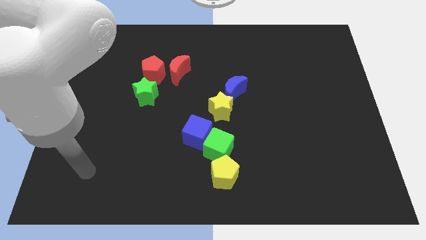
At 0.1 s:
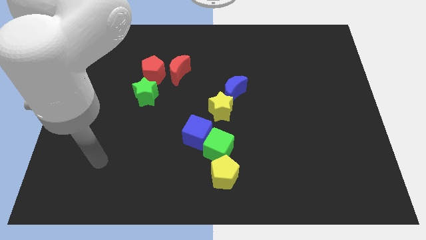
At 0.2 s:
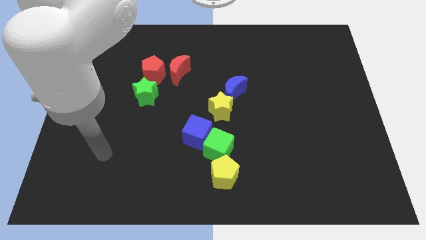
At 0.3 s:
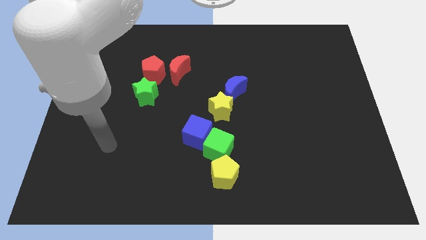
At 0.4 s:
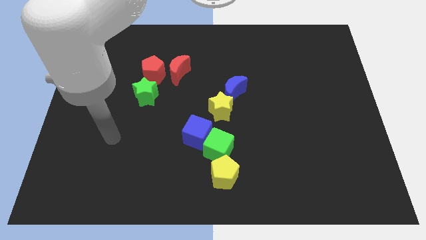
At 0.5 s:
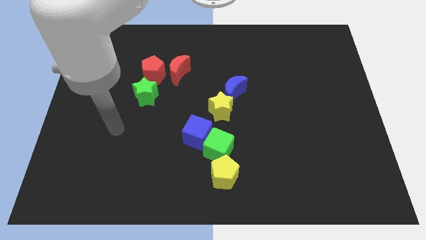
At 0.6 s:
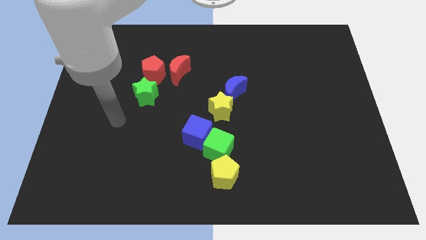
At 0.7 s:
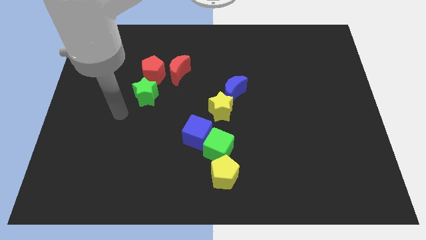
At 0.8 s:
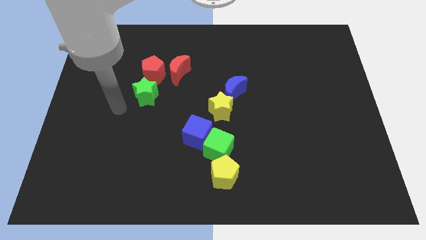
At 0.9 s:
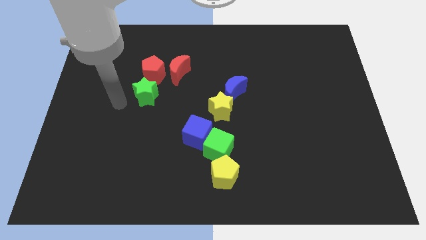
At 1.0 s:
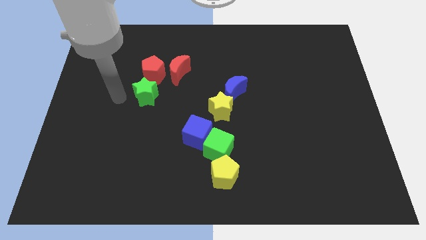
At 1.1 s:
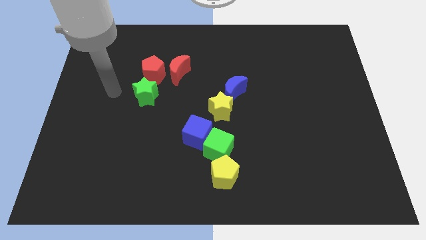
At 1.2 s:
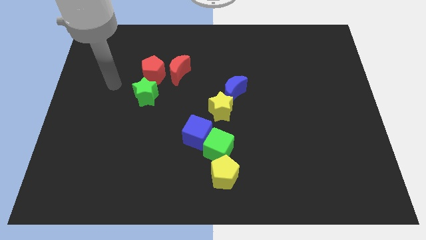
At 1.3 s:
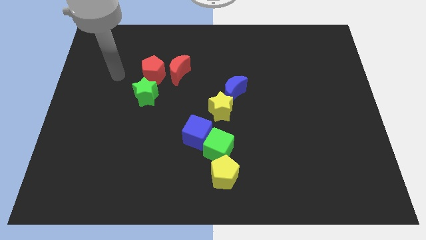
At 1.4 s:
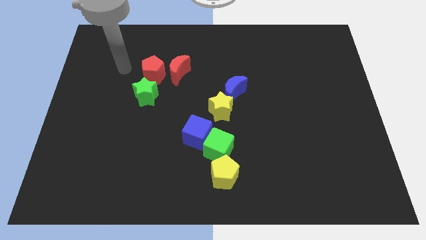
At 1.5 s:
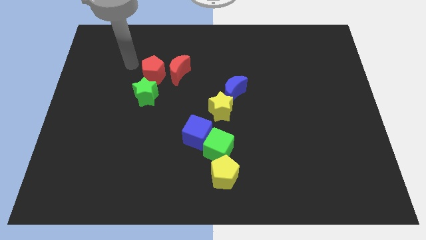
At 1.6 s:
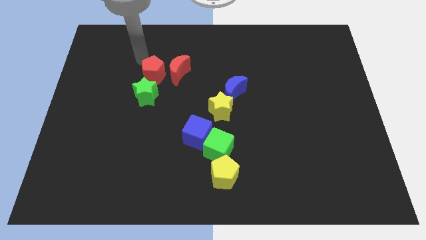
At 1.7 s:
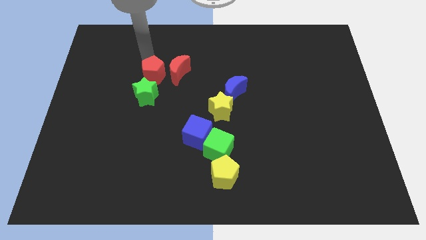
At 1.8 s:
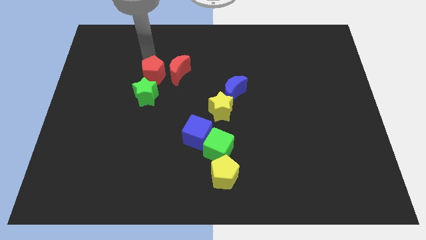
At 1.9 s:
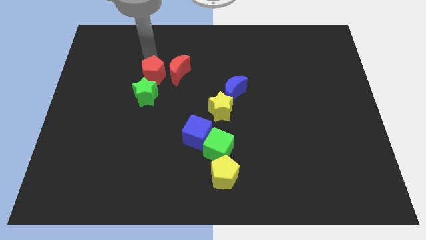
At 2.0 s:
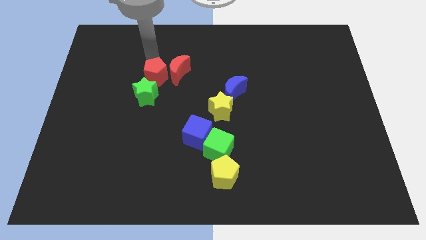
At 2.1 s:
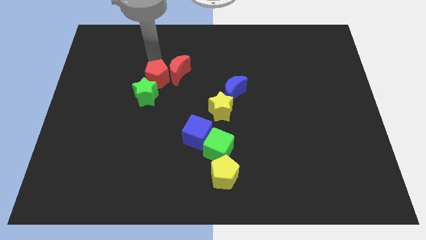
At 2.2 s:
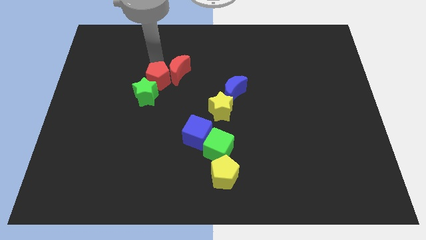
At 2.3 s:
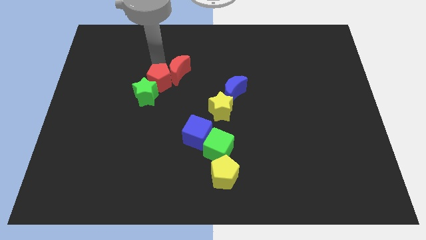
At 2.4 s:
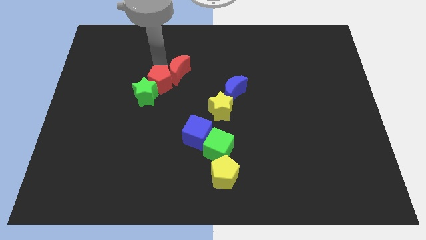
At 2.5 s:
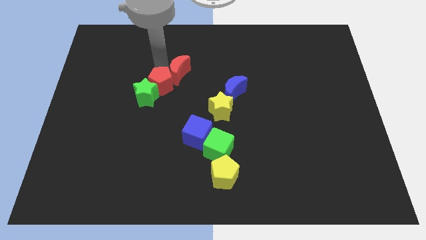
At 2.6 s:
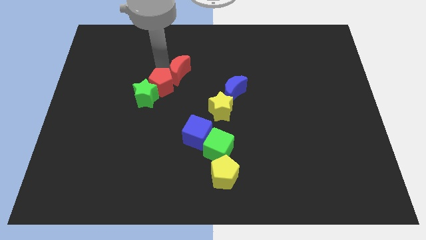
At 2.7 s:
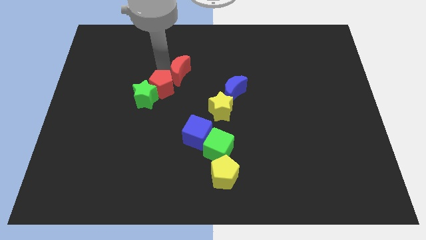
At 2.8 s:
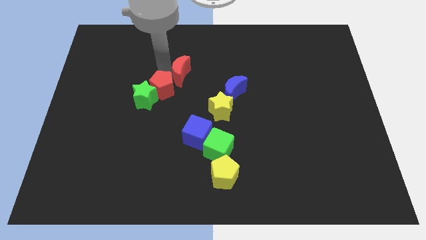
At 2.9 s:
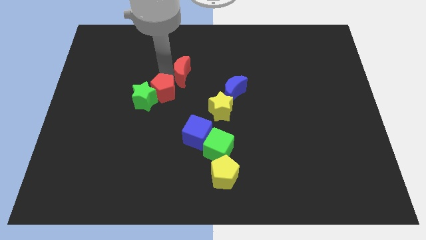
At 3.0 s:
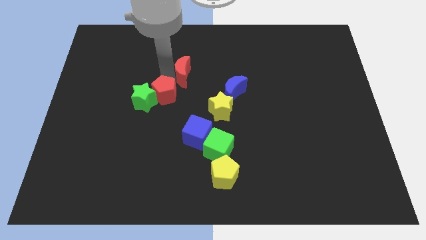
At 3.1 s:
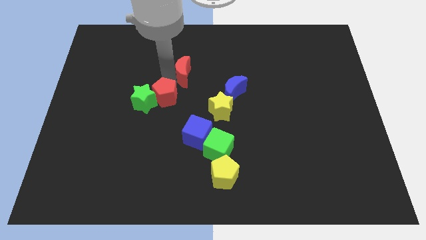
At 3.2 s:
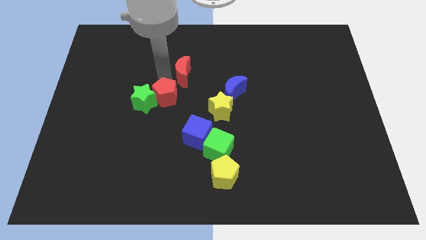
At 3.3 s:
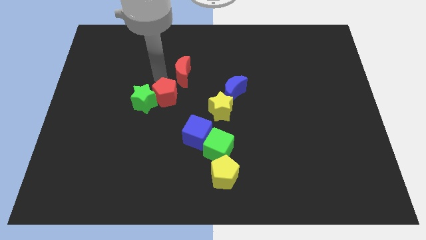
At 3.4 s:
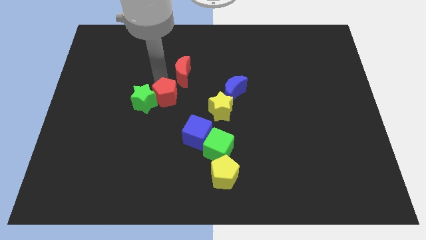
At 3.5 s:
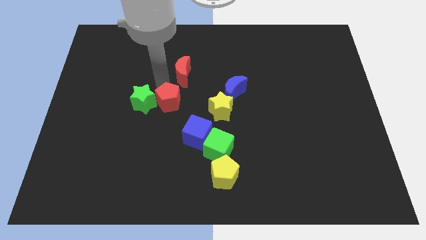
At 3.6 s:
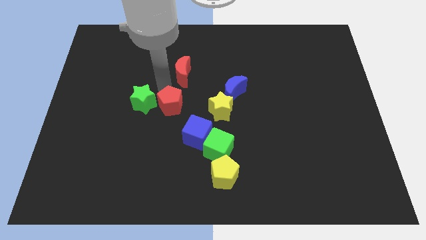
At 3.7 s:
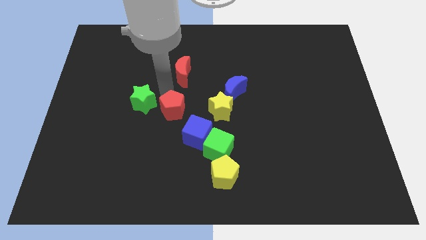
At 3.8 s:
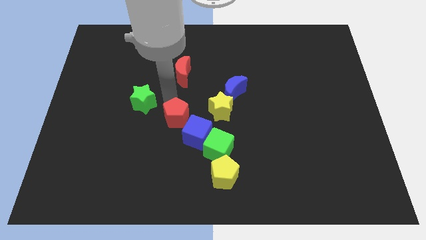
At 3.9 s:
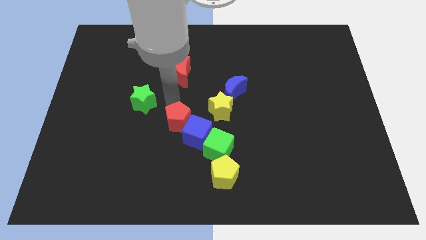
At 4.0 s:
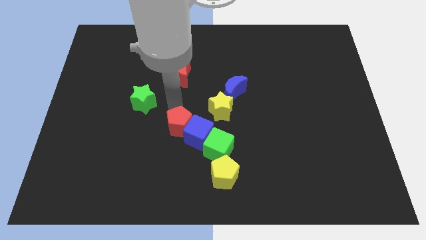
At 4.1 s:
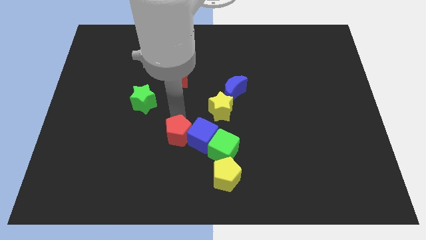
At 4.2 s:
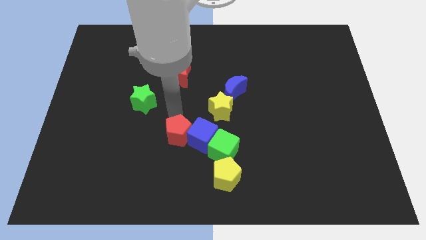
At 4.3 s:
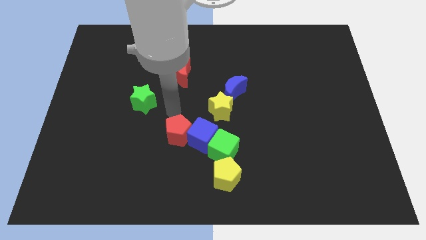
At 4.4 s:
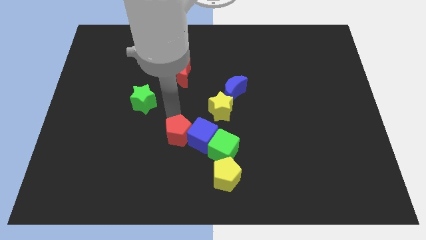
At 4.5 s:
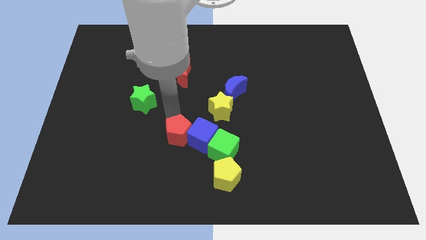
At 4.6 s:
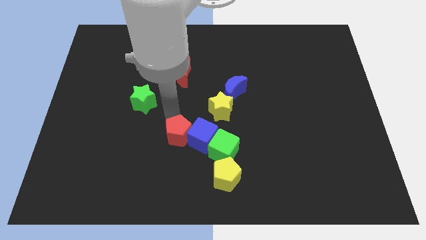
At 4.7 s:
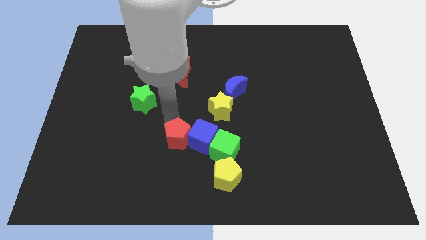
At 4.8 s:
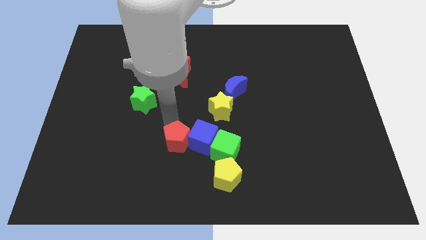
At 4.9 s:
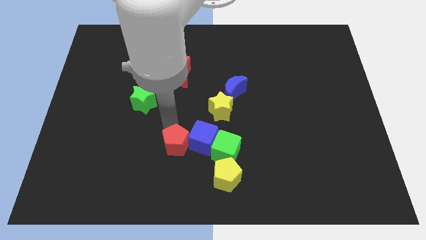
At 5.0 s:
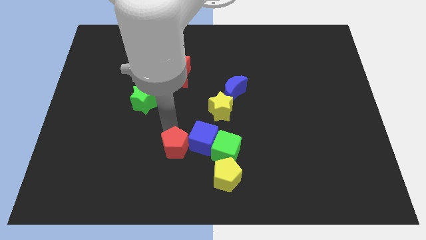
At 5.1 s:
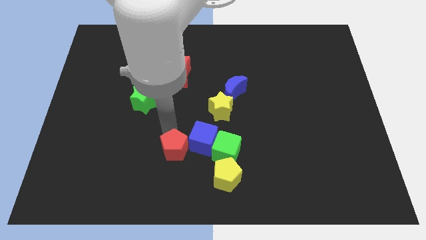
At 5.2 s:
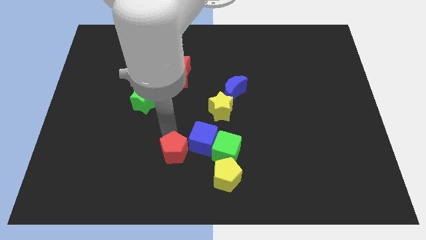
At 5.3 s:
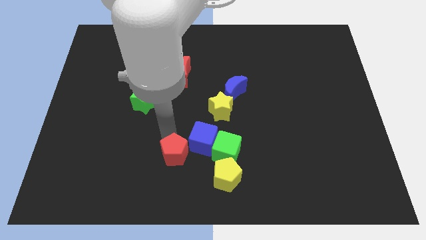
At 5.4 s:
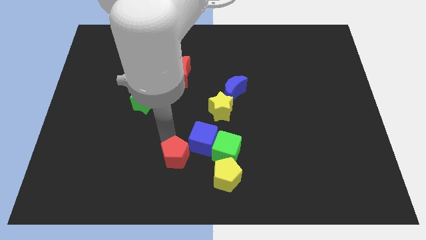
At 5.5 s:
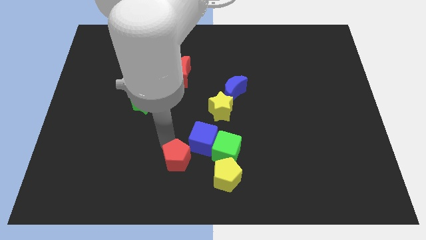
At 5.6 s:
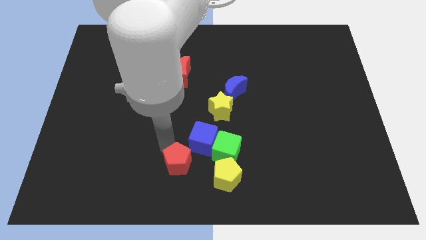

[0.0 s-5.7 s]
put the red pentagon to the bottom side

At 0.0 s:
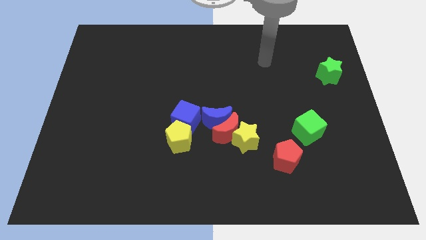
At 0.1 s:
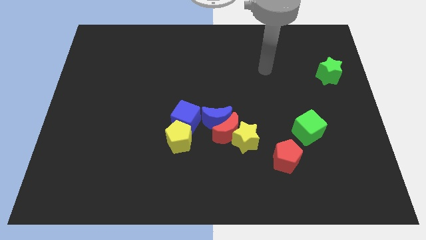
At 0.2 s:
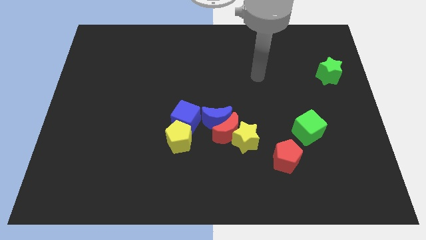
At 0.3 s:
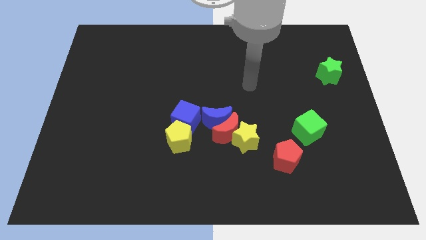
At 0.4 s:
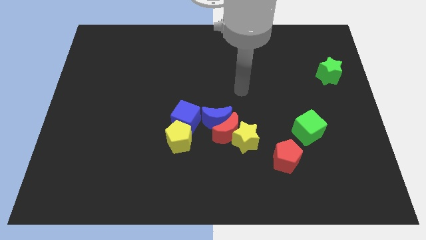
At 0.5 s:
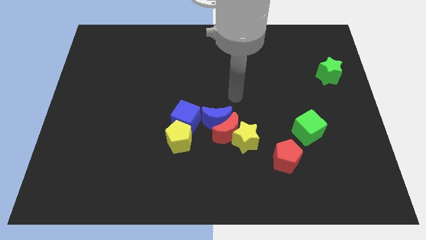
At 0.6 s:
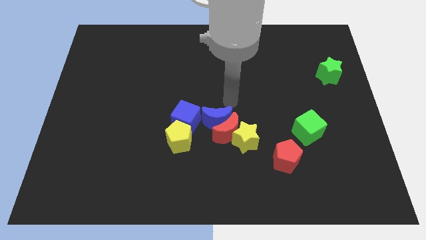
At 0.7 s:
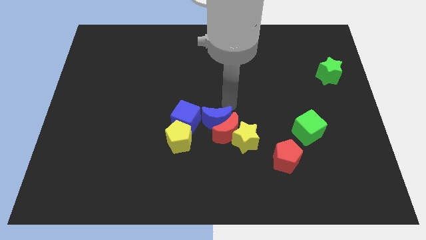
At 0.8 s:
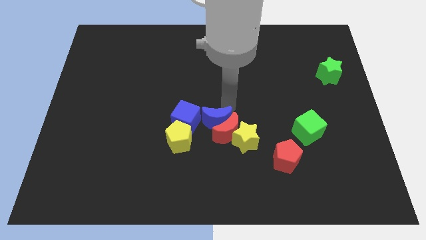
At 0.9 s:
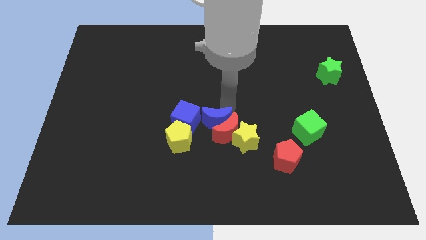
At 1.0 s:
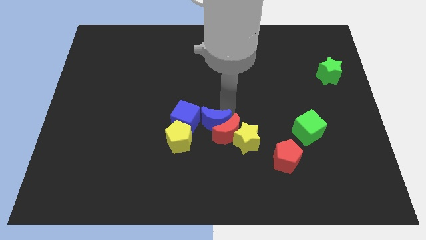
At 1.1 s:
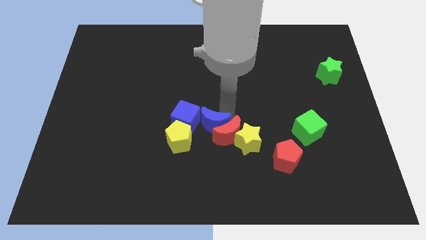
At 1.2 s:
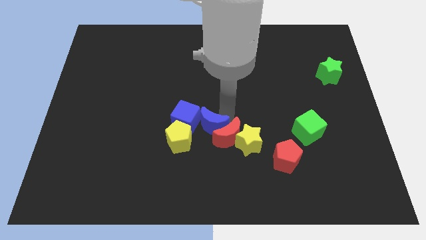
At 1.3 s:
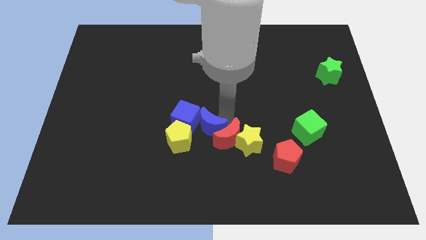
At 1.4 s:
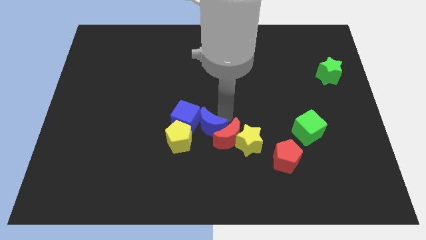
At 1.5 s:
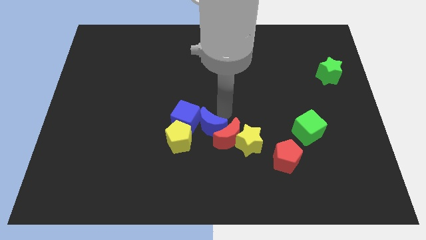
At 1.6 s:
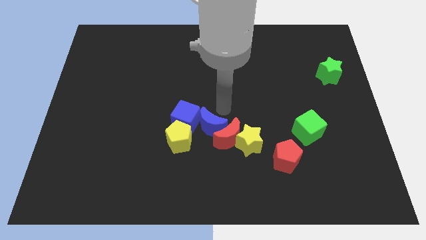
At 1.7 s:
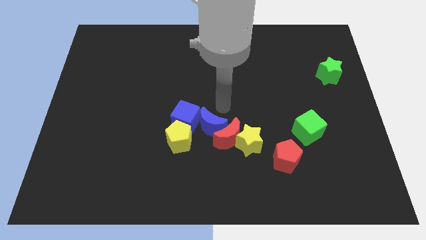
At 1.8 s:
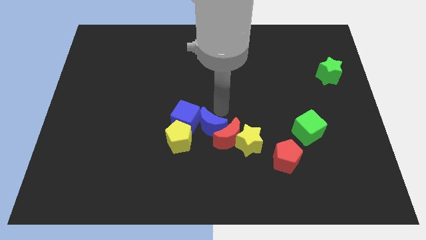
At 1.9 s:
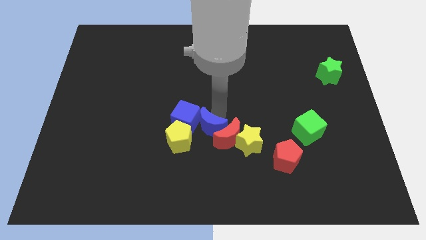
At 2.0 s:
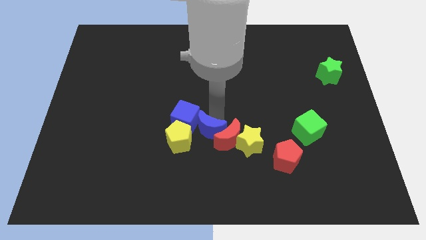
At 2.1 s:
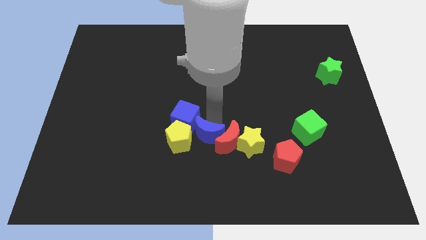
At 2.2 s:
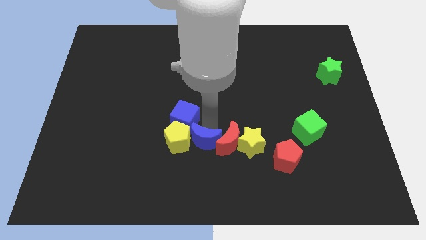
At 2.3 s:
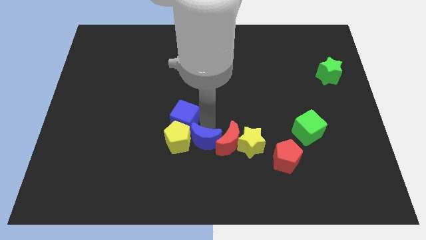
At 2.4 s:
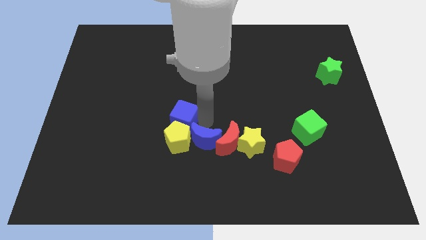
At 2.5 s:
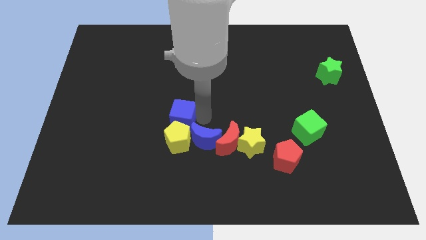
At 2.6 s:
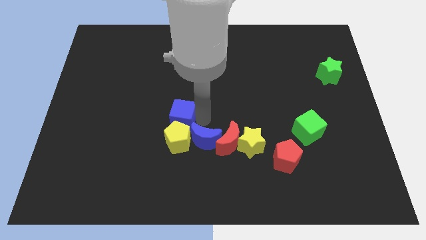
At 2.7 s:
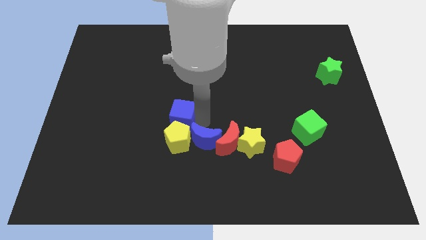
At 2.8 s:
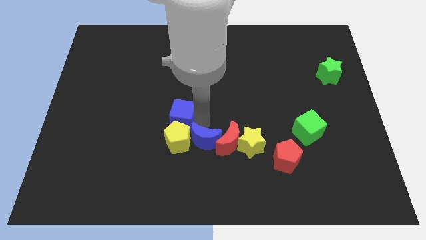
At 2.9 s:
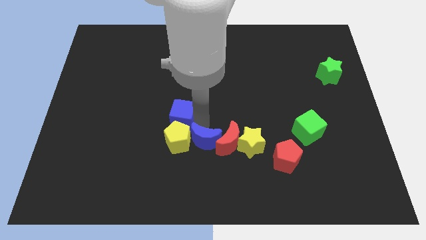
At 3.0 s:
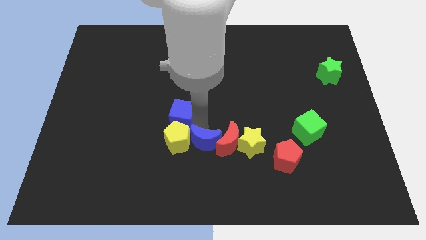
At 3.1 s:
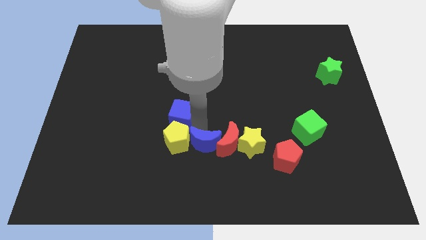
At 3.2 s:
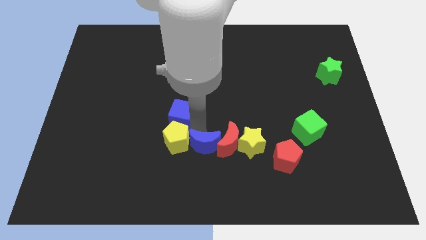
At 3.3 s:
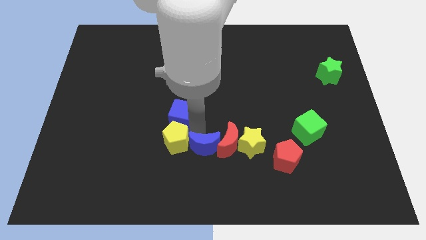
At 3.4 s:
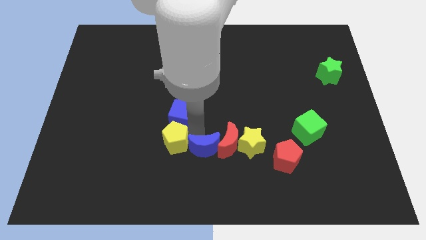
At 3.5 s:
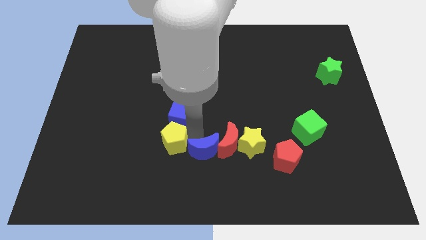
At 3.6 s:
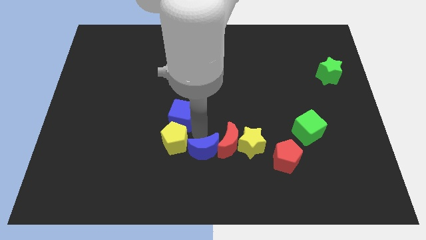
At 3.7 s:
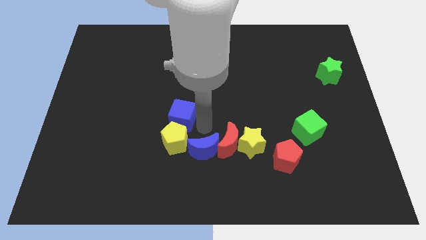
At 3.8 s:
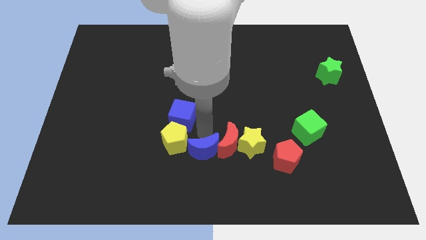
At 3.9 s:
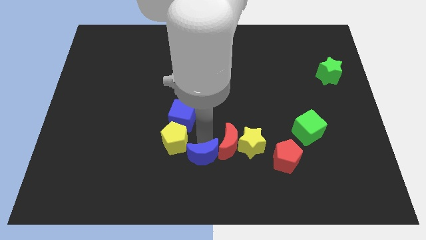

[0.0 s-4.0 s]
put the blue moon to the bottom side
